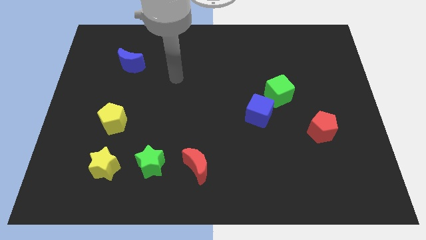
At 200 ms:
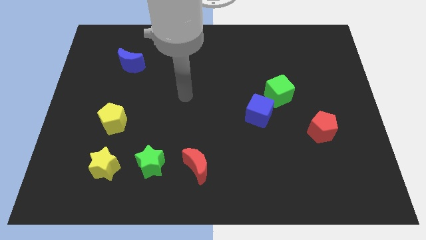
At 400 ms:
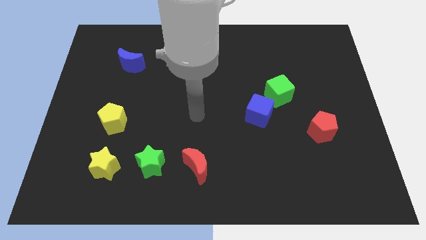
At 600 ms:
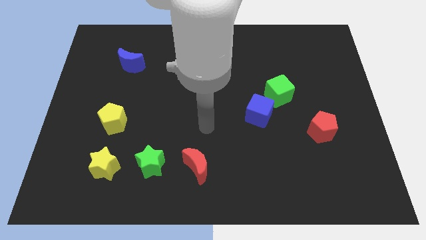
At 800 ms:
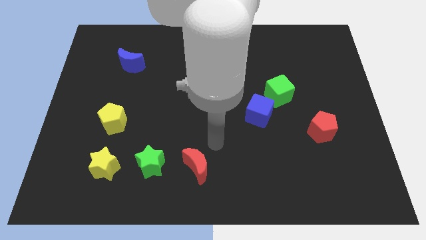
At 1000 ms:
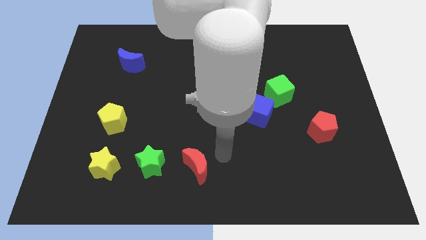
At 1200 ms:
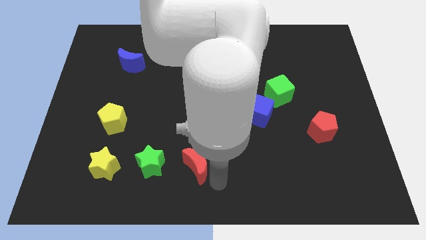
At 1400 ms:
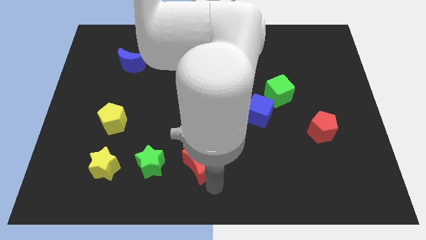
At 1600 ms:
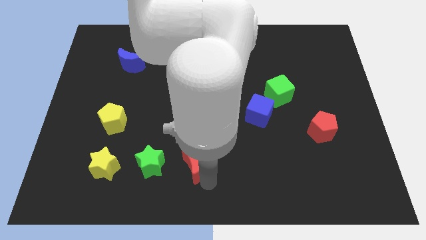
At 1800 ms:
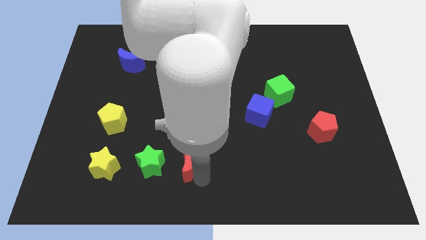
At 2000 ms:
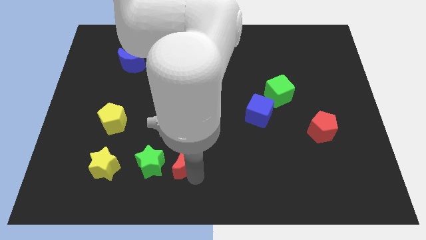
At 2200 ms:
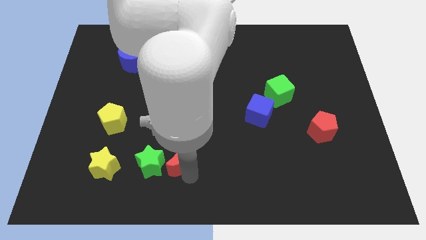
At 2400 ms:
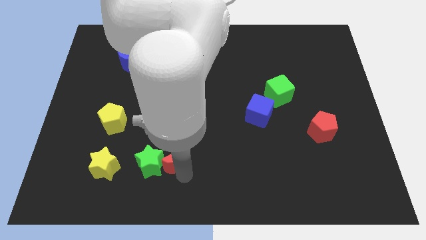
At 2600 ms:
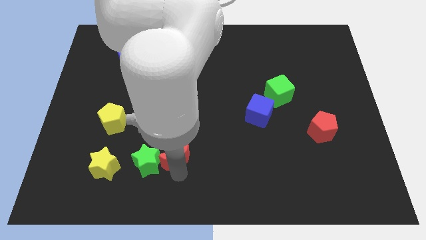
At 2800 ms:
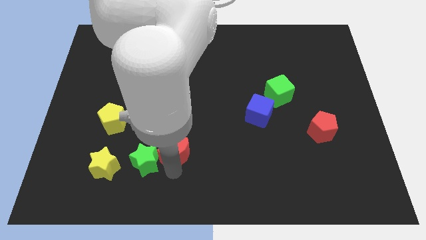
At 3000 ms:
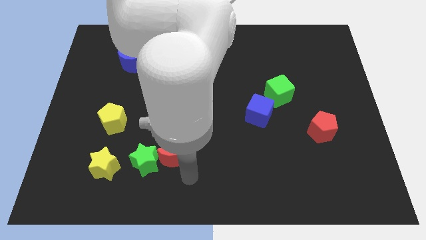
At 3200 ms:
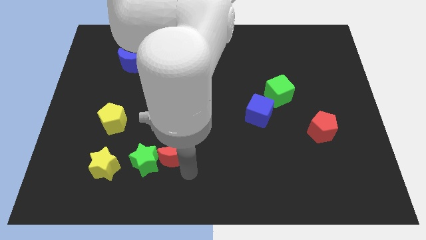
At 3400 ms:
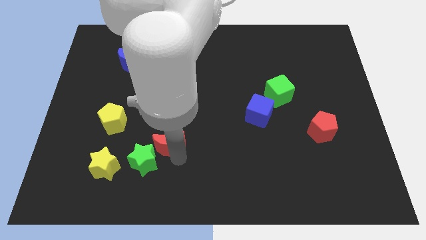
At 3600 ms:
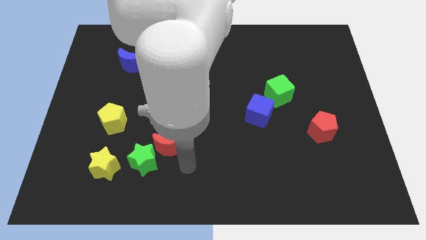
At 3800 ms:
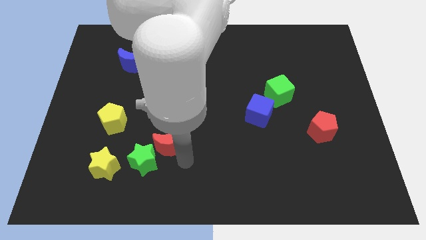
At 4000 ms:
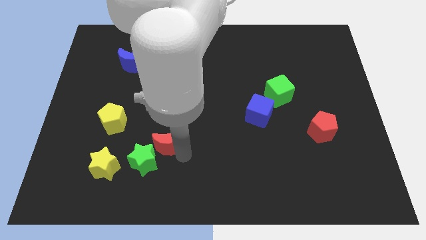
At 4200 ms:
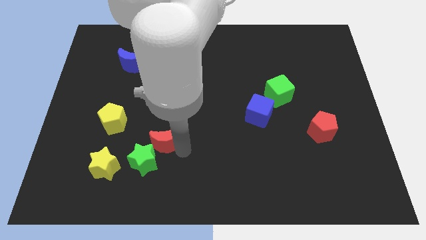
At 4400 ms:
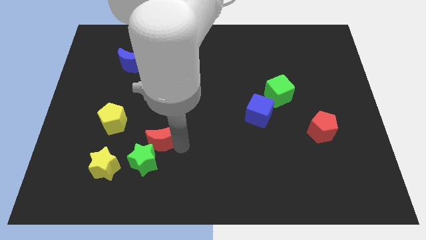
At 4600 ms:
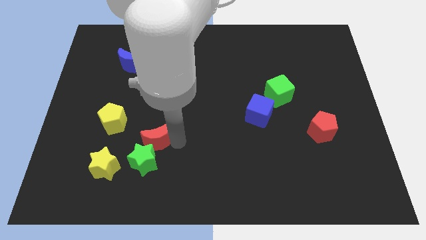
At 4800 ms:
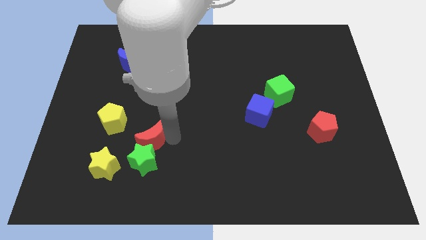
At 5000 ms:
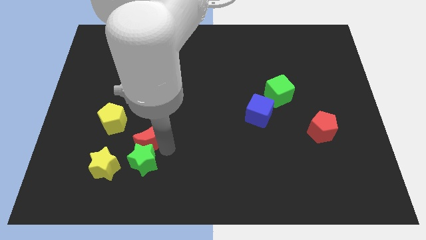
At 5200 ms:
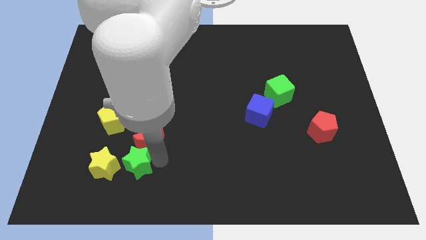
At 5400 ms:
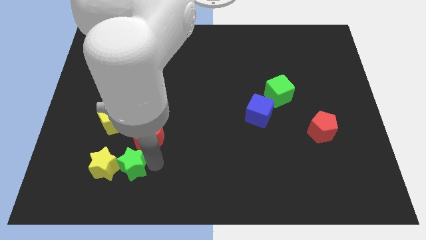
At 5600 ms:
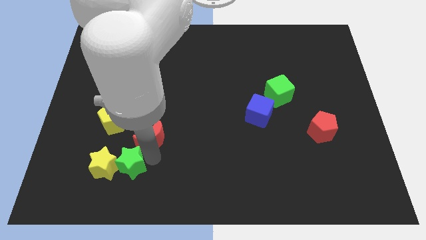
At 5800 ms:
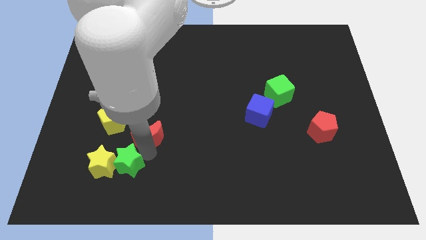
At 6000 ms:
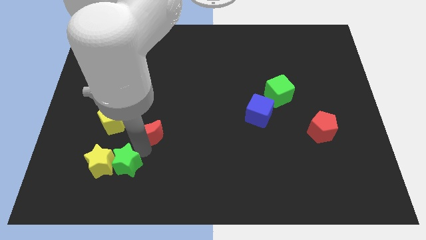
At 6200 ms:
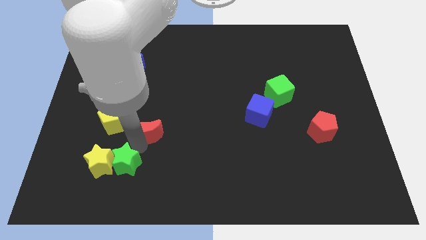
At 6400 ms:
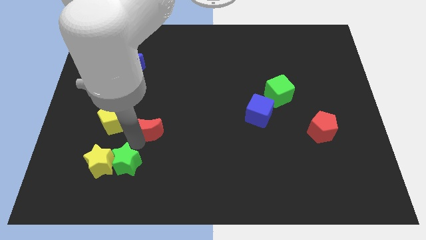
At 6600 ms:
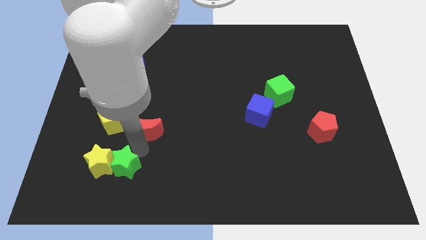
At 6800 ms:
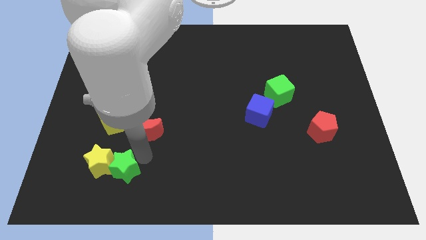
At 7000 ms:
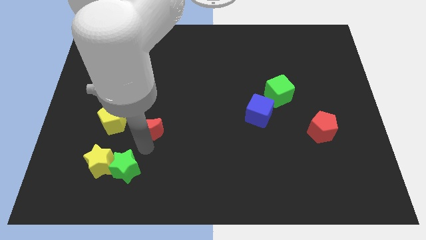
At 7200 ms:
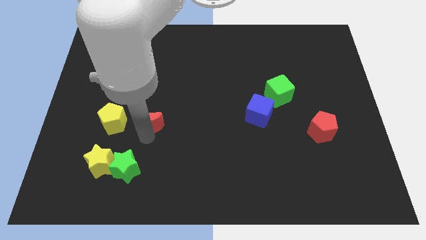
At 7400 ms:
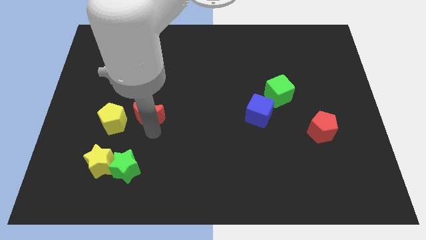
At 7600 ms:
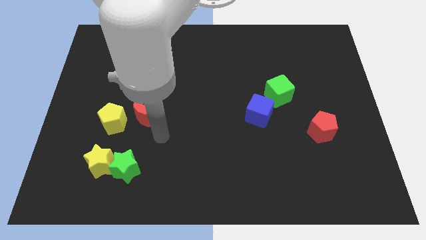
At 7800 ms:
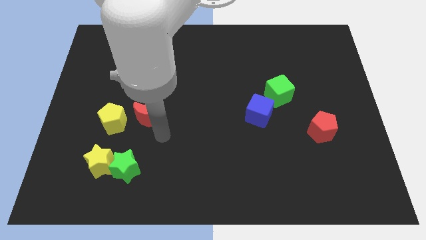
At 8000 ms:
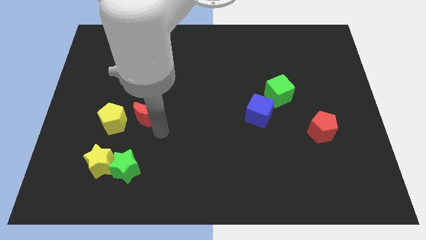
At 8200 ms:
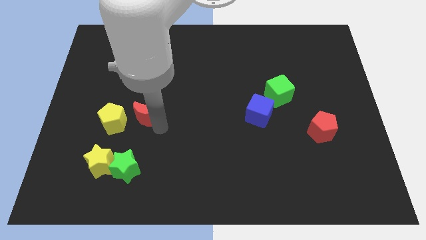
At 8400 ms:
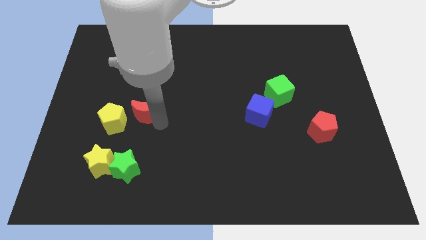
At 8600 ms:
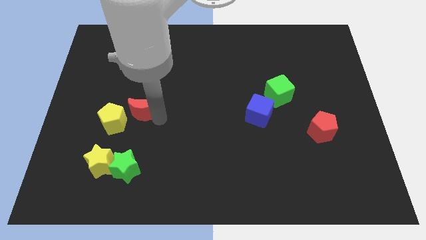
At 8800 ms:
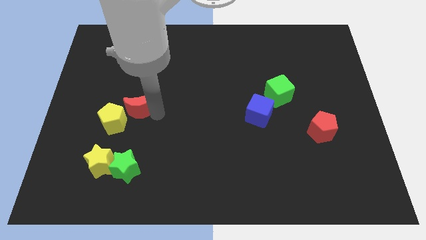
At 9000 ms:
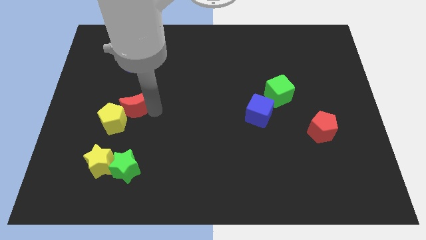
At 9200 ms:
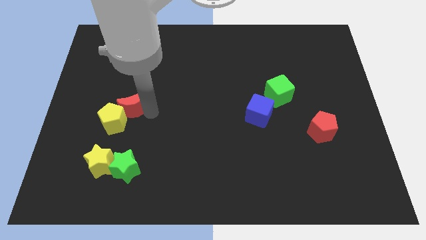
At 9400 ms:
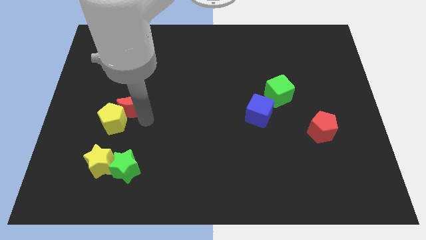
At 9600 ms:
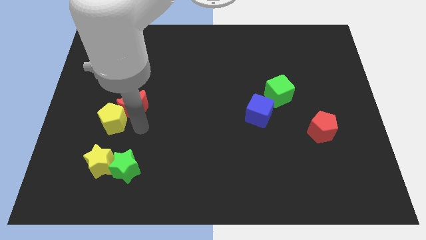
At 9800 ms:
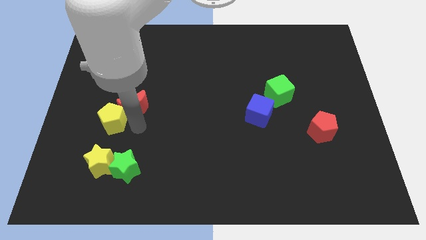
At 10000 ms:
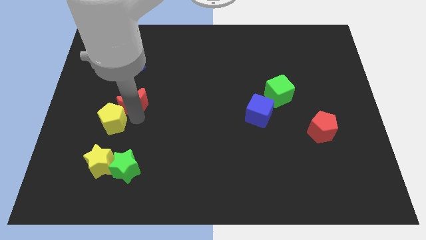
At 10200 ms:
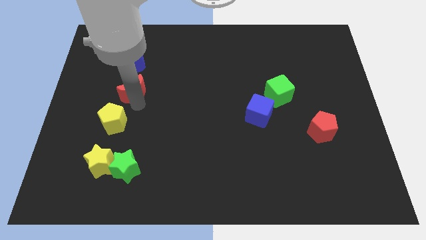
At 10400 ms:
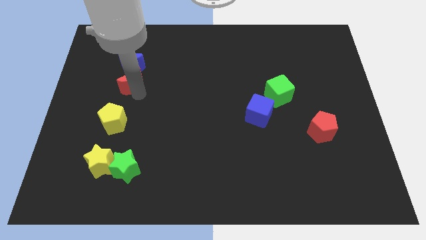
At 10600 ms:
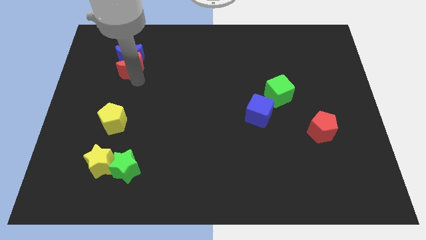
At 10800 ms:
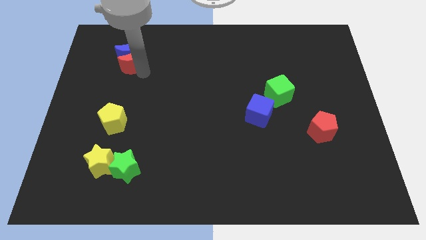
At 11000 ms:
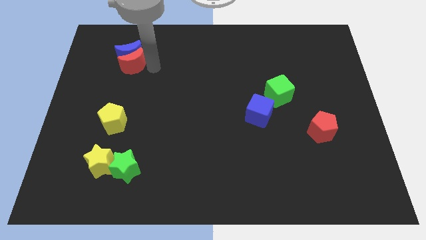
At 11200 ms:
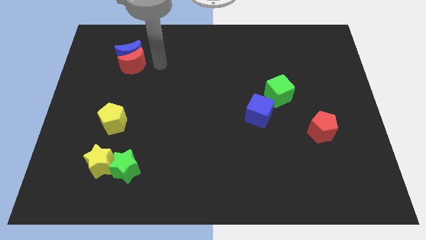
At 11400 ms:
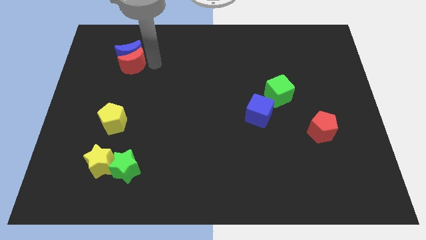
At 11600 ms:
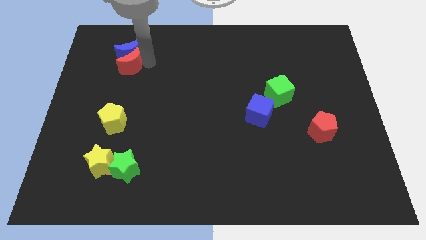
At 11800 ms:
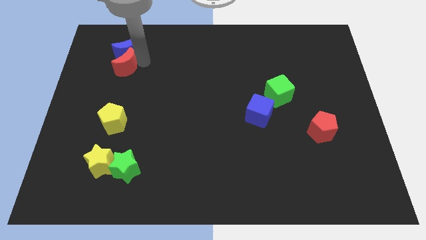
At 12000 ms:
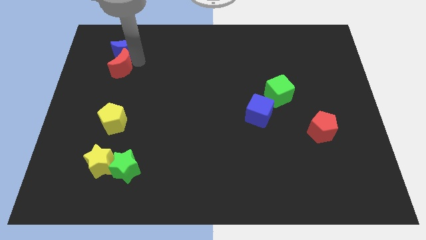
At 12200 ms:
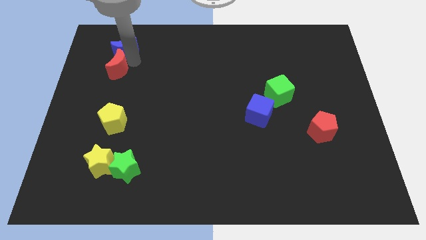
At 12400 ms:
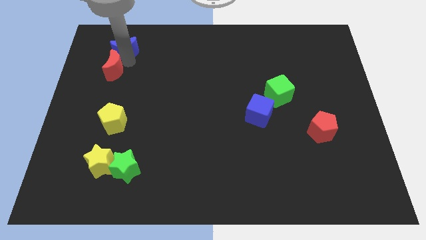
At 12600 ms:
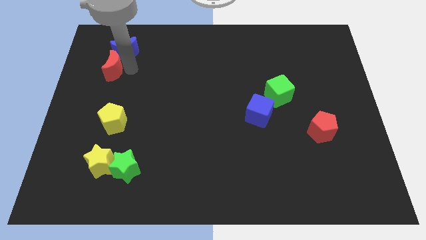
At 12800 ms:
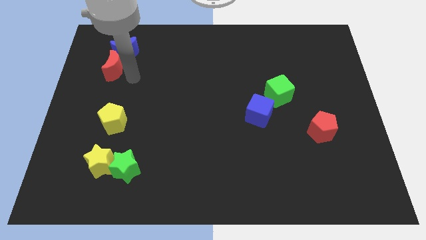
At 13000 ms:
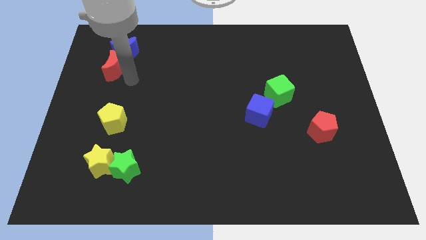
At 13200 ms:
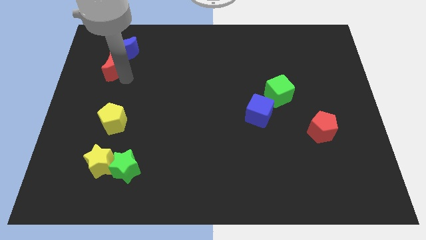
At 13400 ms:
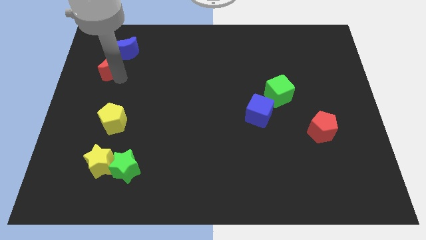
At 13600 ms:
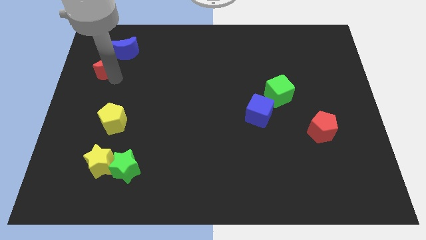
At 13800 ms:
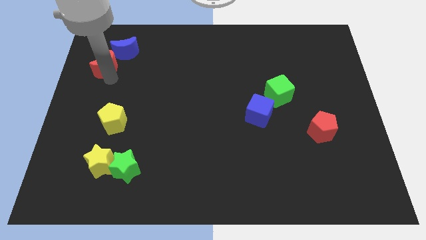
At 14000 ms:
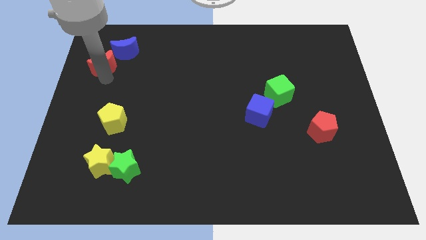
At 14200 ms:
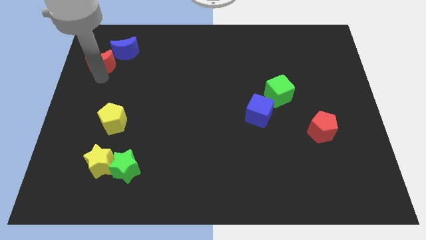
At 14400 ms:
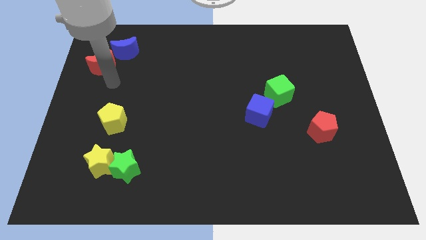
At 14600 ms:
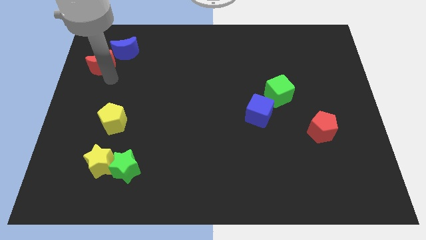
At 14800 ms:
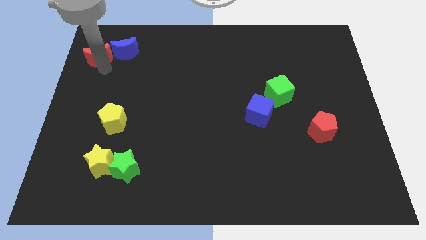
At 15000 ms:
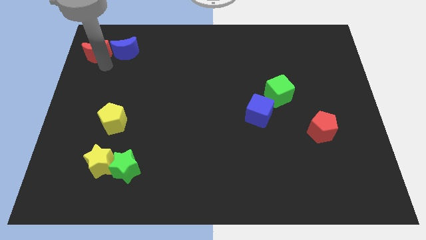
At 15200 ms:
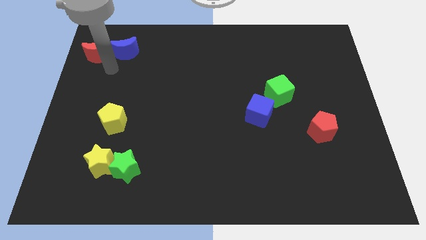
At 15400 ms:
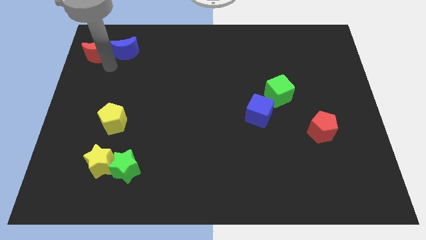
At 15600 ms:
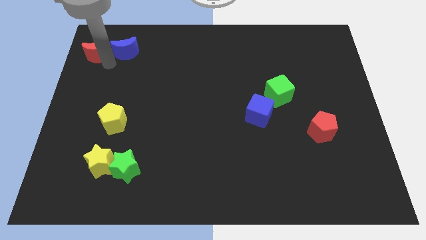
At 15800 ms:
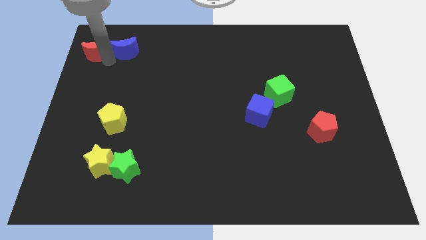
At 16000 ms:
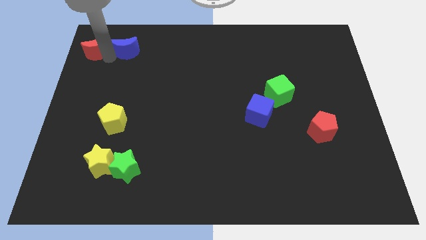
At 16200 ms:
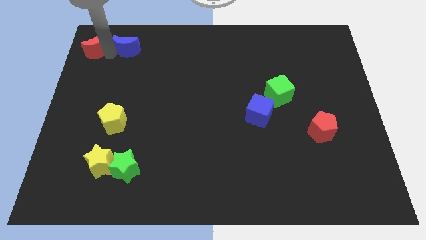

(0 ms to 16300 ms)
push the red moon to the upper left corner
